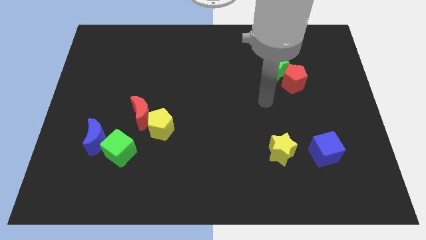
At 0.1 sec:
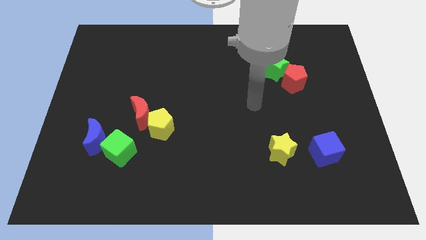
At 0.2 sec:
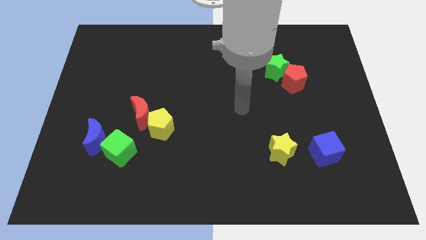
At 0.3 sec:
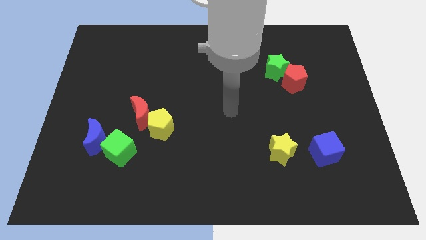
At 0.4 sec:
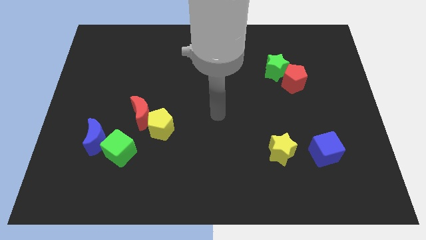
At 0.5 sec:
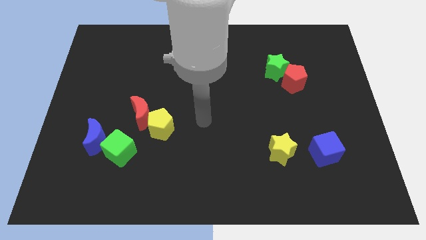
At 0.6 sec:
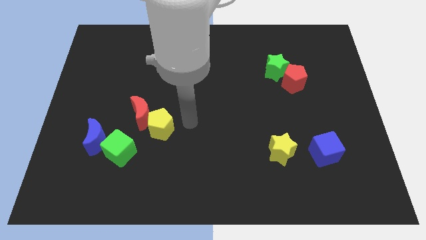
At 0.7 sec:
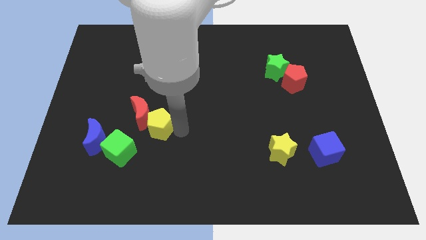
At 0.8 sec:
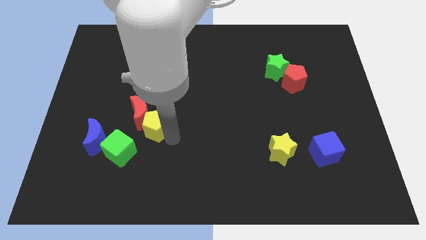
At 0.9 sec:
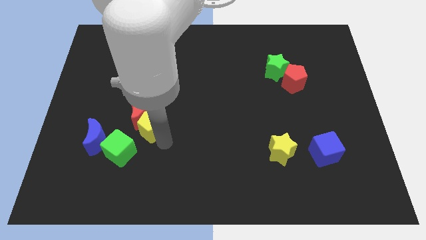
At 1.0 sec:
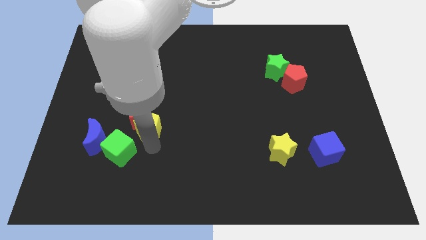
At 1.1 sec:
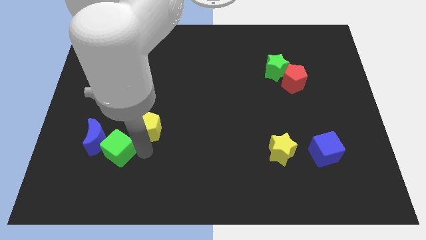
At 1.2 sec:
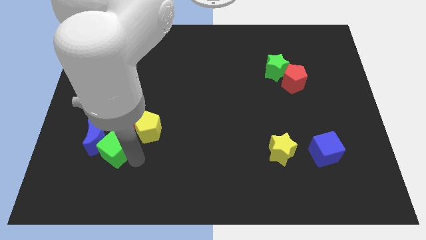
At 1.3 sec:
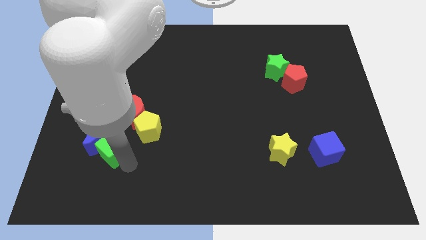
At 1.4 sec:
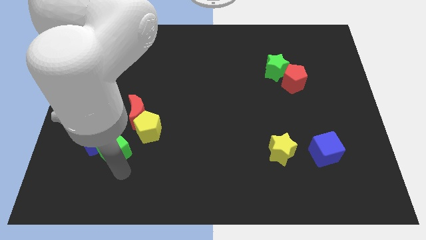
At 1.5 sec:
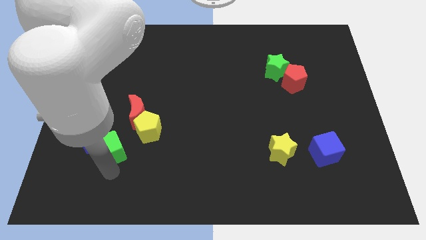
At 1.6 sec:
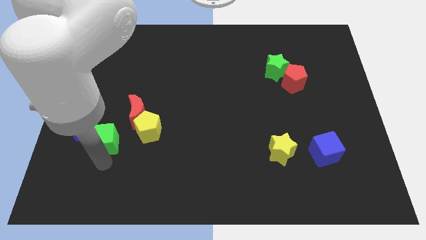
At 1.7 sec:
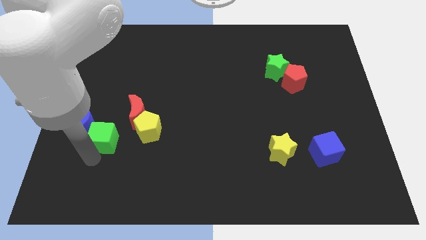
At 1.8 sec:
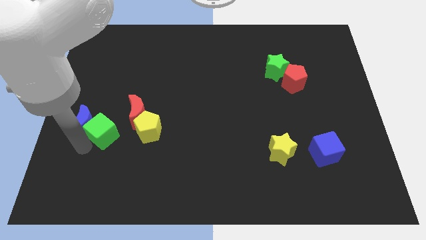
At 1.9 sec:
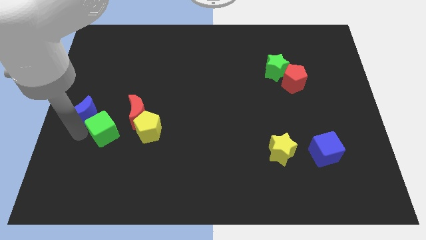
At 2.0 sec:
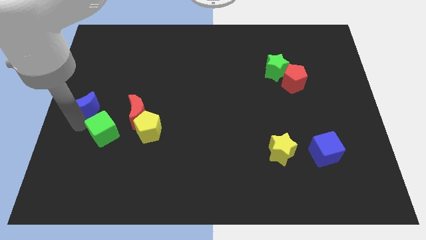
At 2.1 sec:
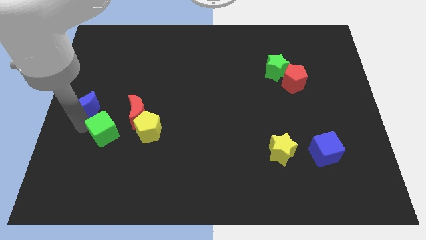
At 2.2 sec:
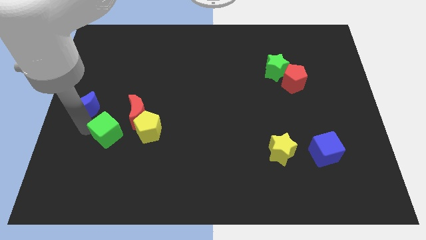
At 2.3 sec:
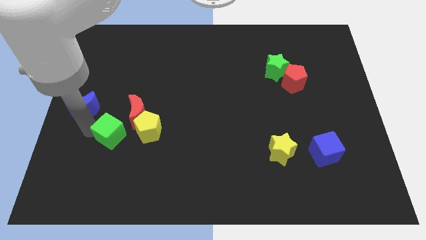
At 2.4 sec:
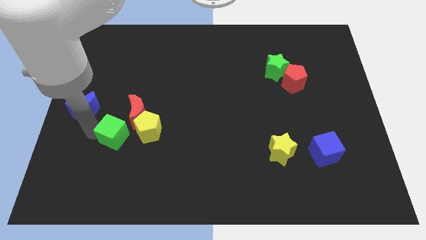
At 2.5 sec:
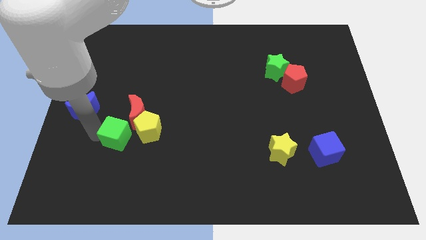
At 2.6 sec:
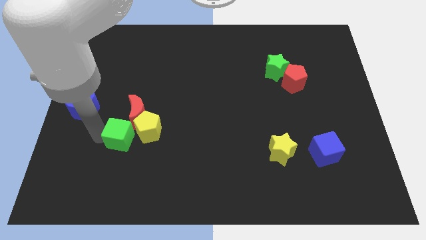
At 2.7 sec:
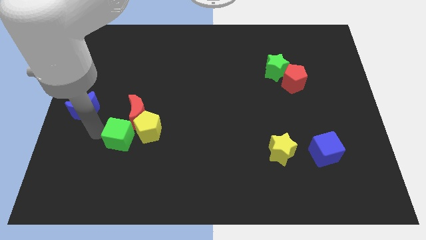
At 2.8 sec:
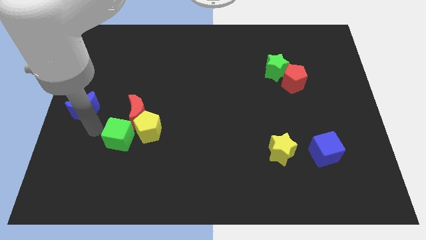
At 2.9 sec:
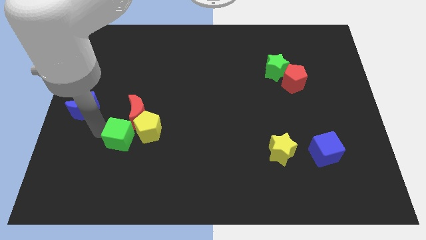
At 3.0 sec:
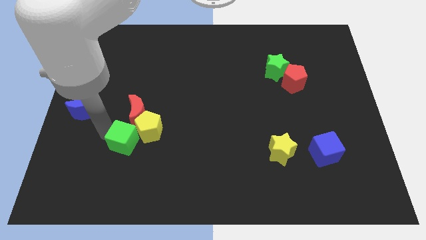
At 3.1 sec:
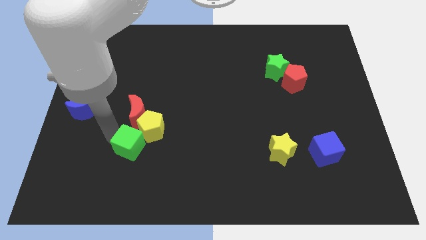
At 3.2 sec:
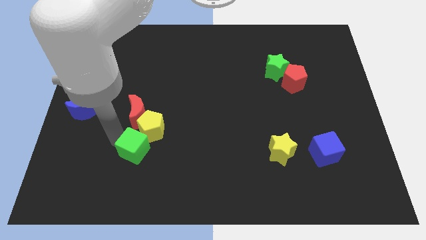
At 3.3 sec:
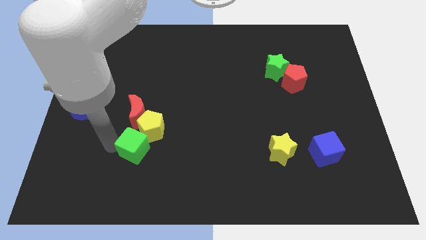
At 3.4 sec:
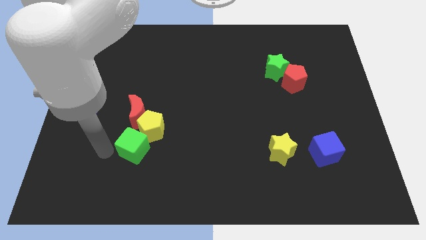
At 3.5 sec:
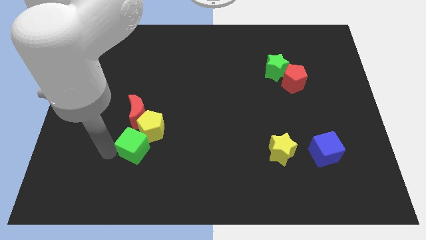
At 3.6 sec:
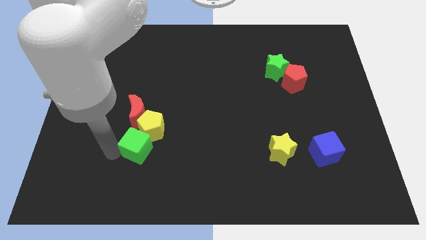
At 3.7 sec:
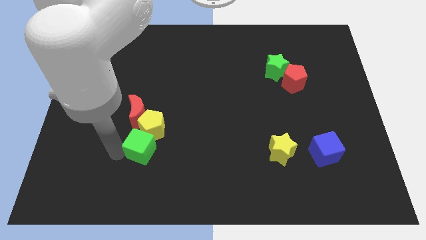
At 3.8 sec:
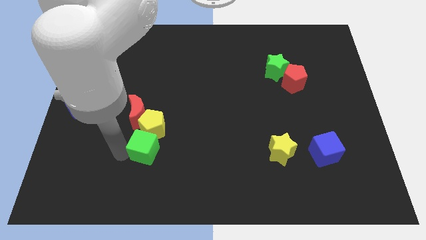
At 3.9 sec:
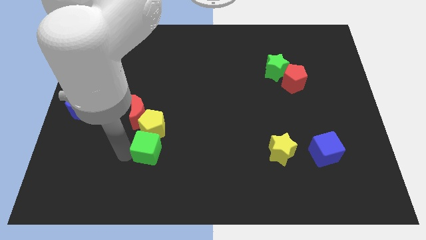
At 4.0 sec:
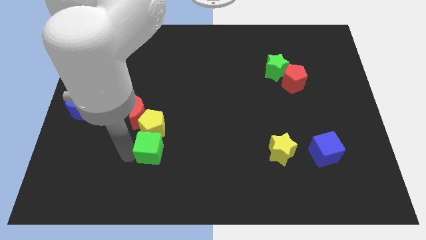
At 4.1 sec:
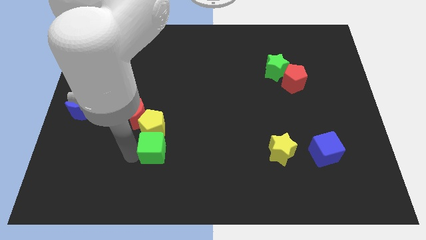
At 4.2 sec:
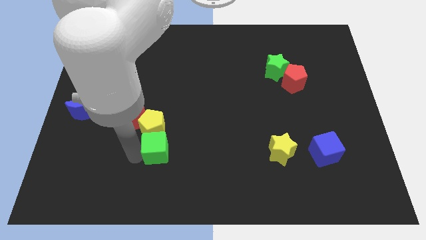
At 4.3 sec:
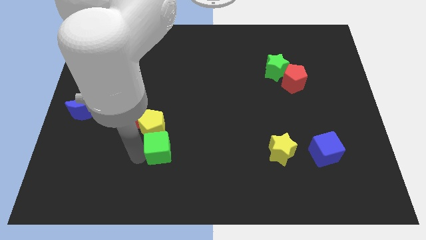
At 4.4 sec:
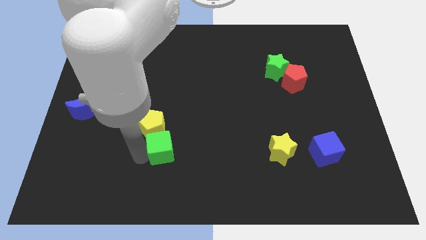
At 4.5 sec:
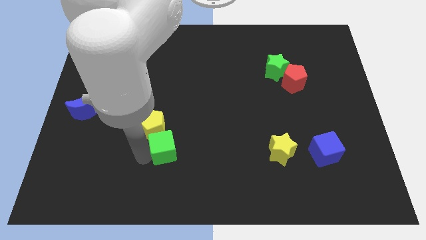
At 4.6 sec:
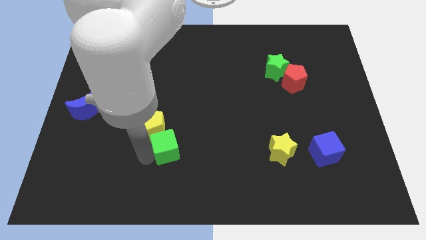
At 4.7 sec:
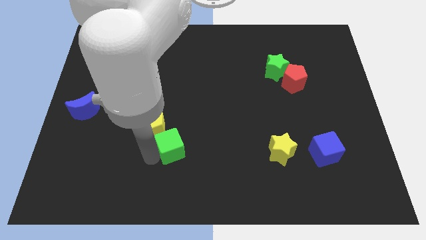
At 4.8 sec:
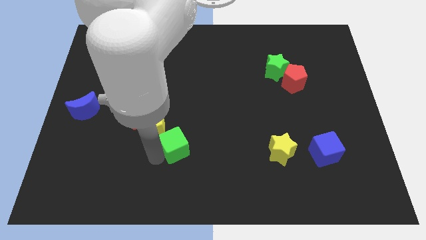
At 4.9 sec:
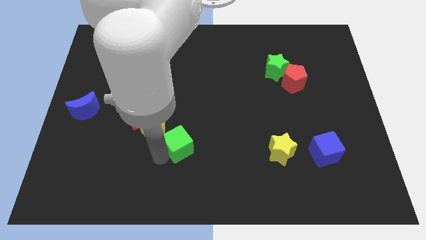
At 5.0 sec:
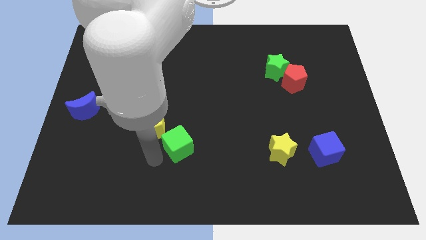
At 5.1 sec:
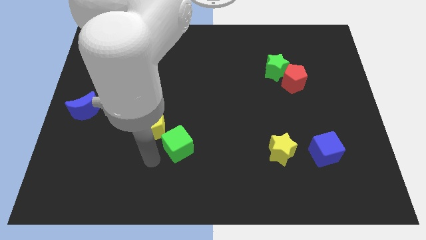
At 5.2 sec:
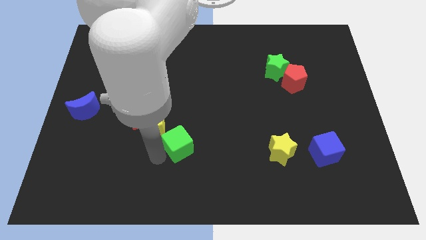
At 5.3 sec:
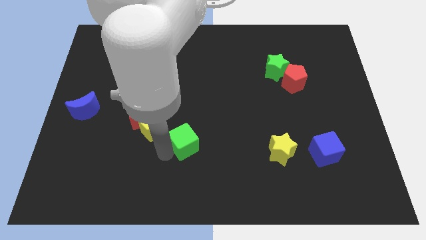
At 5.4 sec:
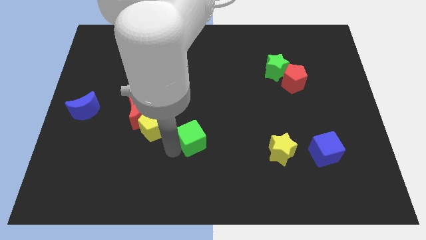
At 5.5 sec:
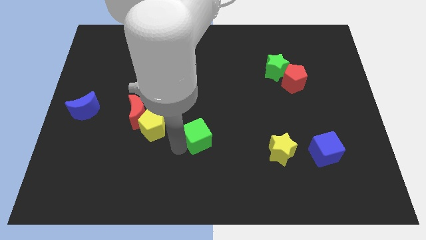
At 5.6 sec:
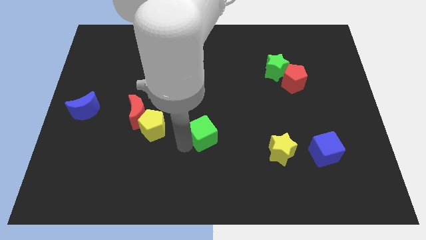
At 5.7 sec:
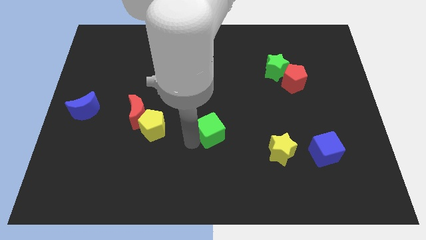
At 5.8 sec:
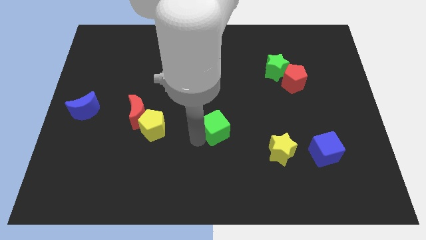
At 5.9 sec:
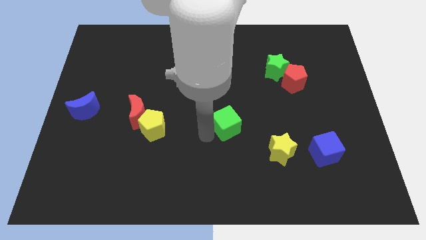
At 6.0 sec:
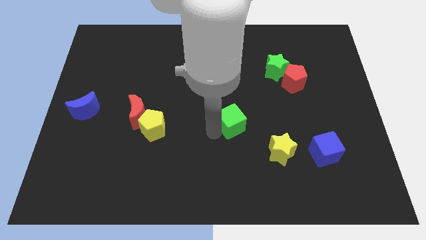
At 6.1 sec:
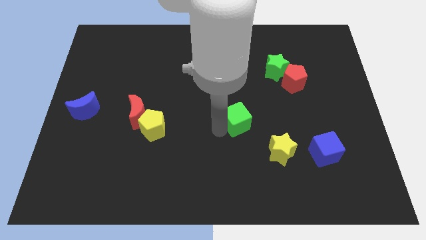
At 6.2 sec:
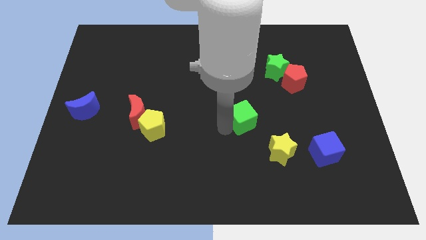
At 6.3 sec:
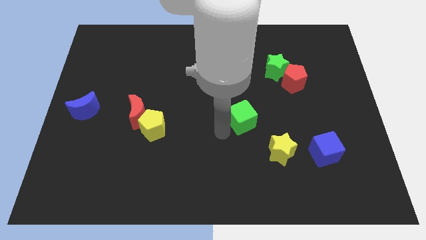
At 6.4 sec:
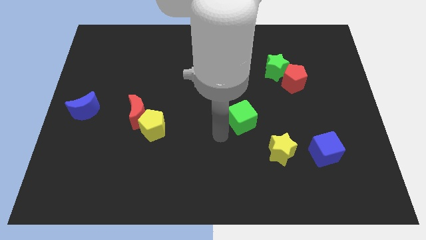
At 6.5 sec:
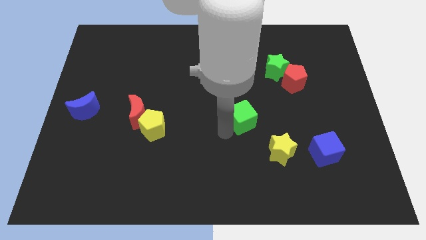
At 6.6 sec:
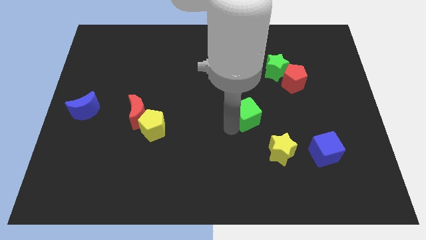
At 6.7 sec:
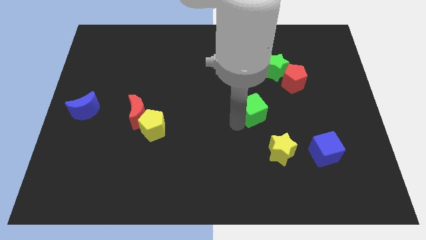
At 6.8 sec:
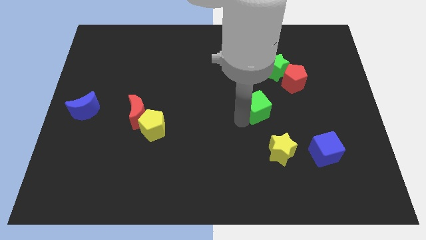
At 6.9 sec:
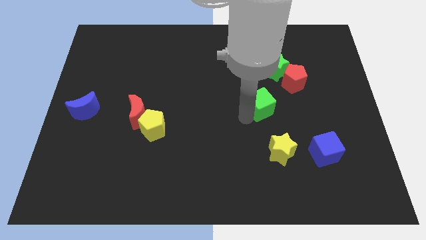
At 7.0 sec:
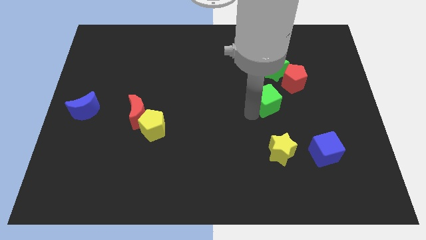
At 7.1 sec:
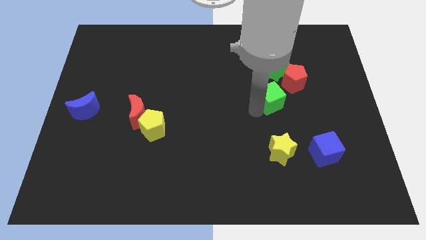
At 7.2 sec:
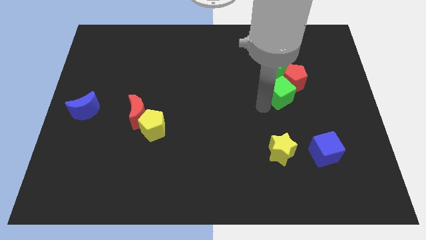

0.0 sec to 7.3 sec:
put the green cube towards the red pentagon

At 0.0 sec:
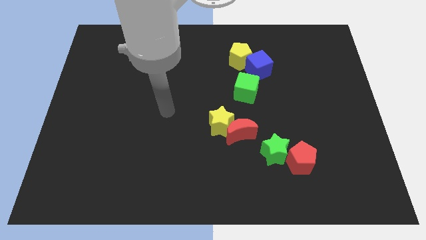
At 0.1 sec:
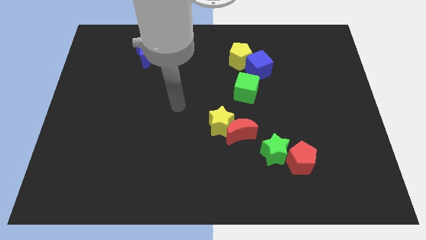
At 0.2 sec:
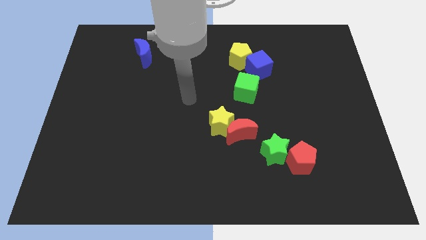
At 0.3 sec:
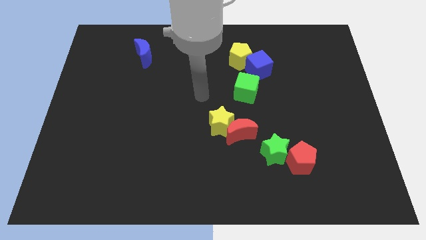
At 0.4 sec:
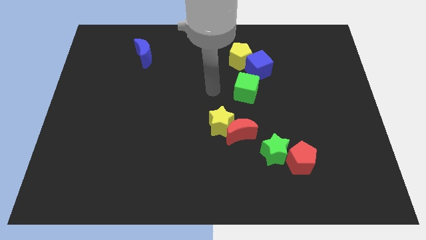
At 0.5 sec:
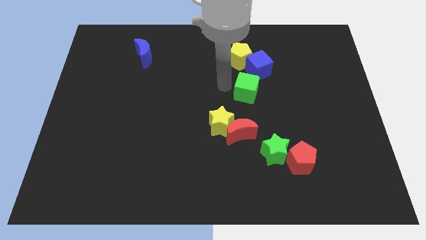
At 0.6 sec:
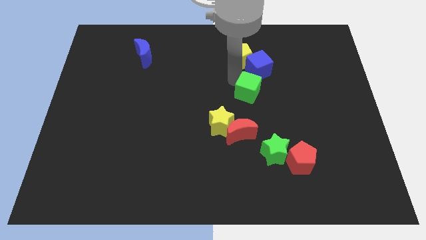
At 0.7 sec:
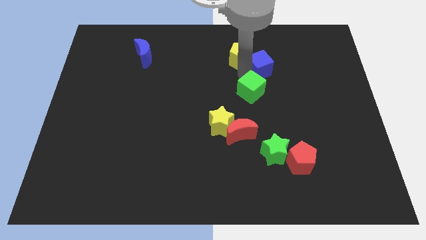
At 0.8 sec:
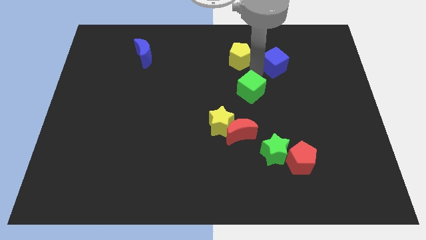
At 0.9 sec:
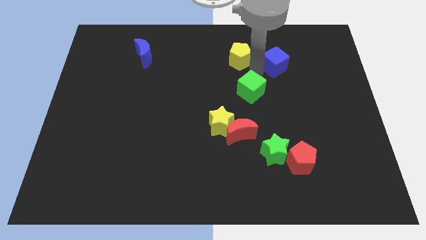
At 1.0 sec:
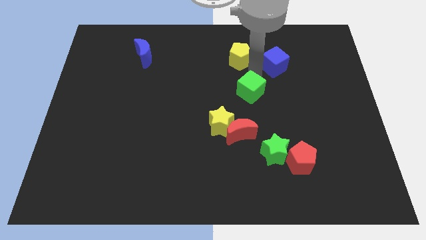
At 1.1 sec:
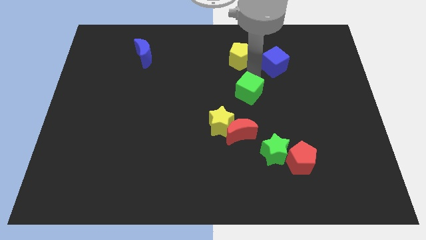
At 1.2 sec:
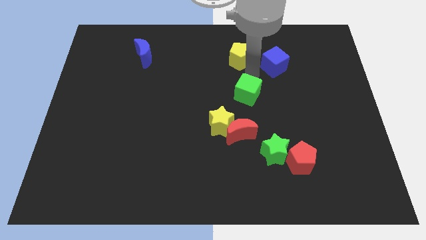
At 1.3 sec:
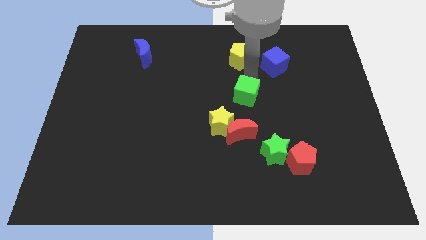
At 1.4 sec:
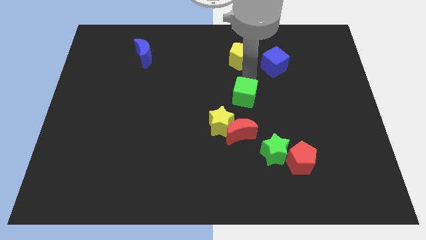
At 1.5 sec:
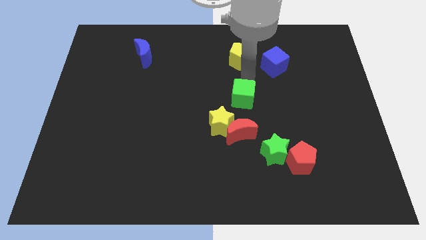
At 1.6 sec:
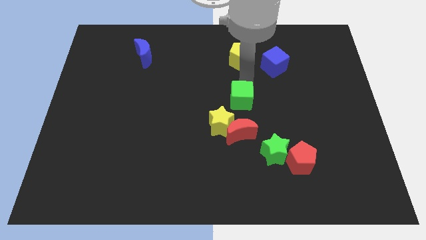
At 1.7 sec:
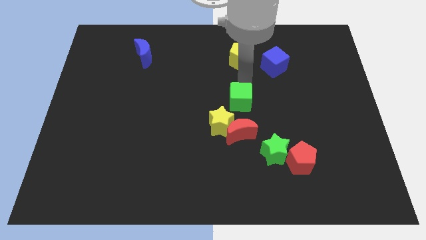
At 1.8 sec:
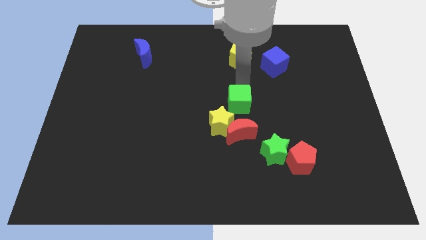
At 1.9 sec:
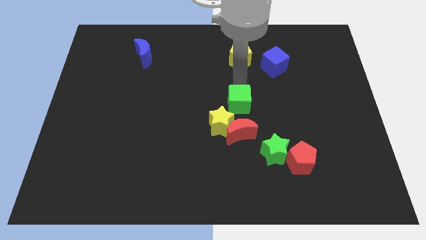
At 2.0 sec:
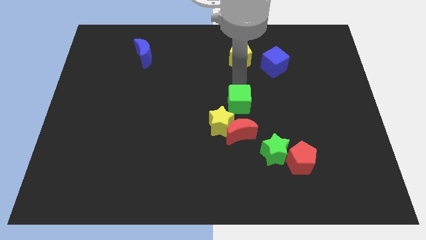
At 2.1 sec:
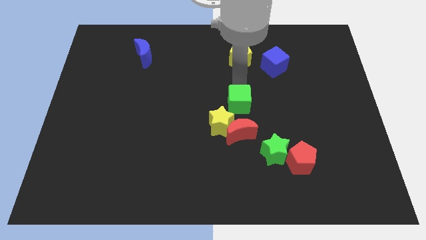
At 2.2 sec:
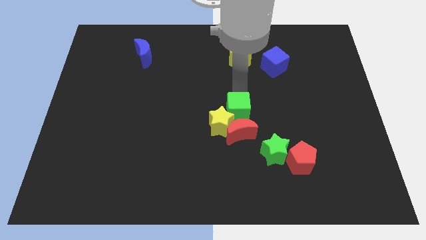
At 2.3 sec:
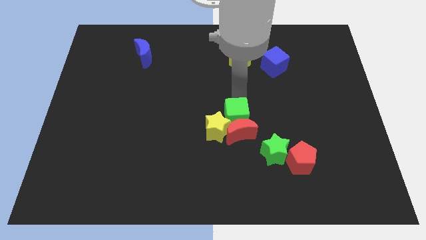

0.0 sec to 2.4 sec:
put the green cube close to the red moon
